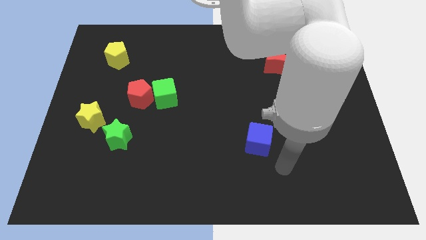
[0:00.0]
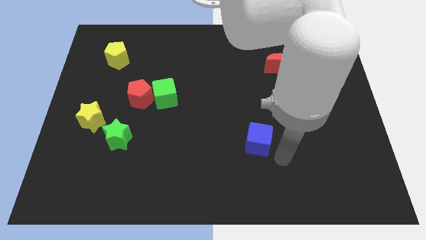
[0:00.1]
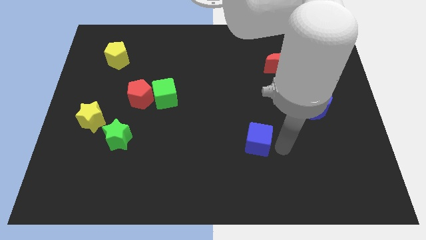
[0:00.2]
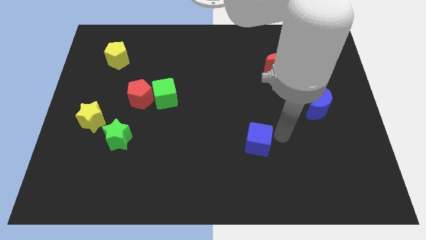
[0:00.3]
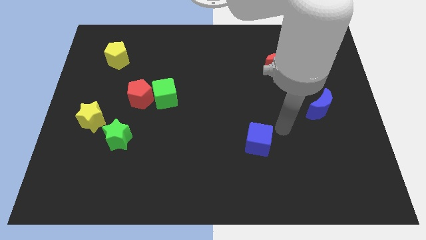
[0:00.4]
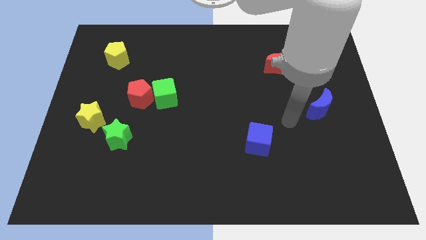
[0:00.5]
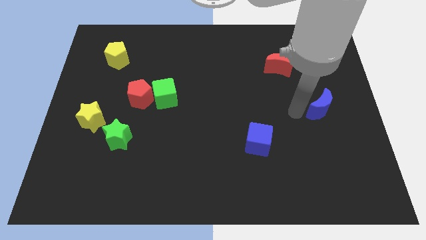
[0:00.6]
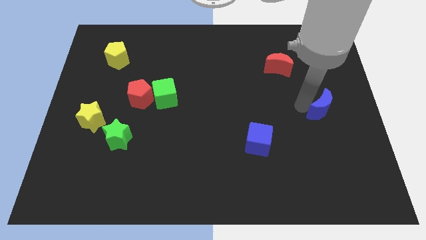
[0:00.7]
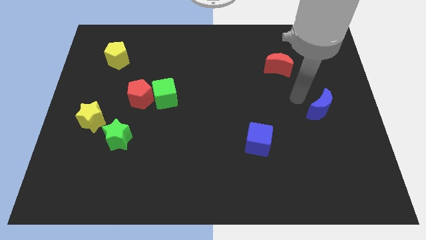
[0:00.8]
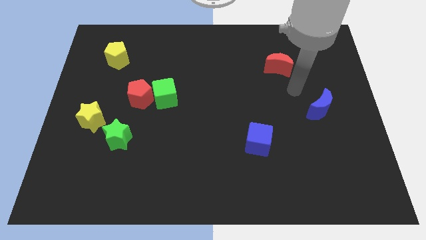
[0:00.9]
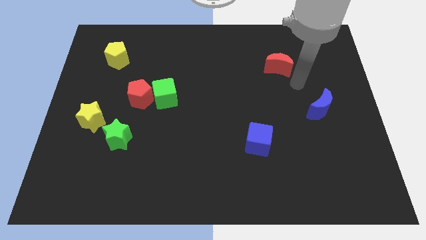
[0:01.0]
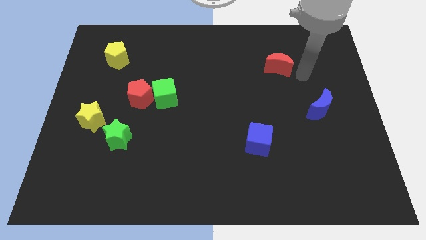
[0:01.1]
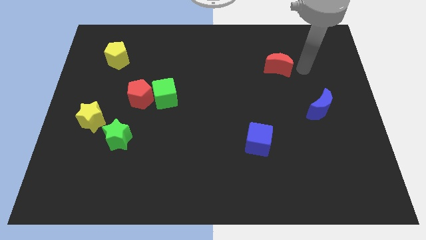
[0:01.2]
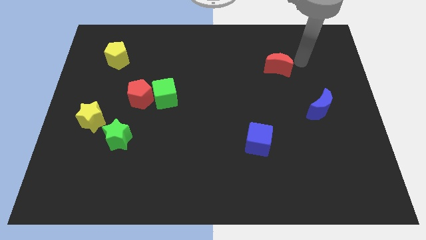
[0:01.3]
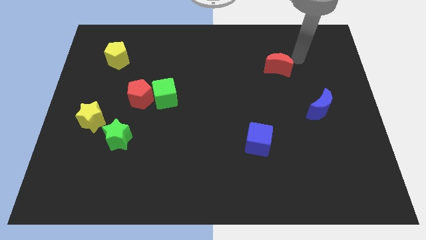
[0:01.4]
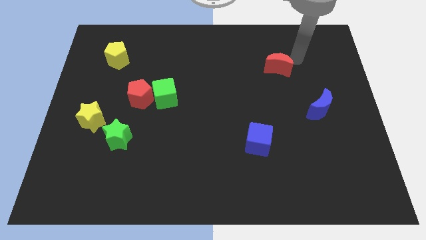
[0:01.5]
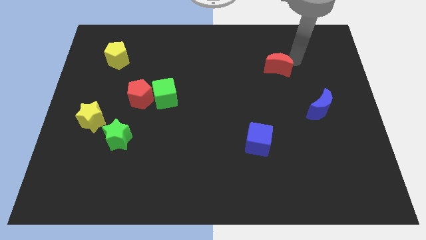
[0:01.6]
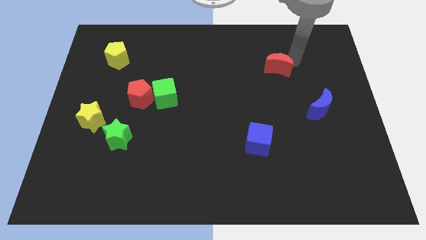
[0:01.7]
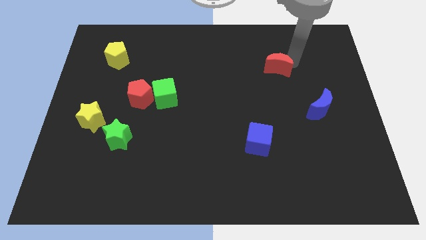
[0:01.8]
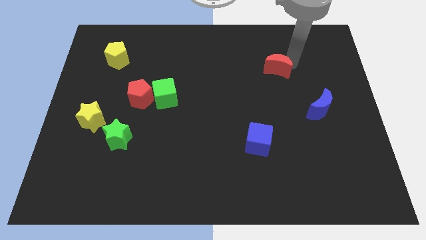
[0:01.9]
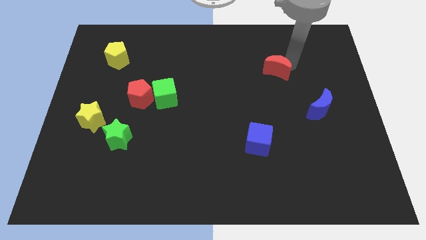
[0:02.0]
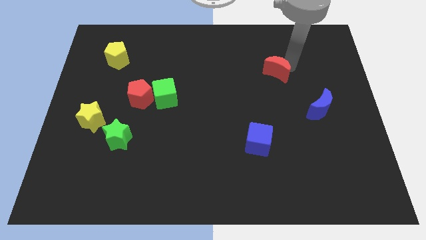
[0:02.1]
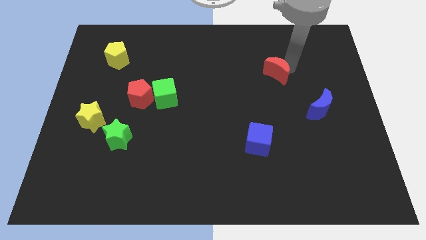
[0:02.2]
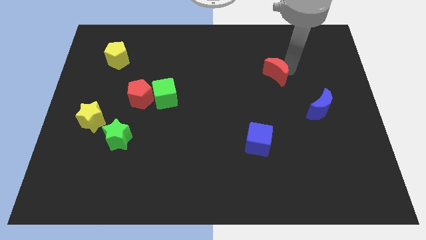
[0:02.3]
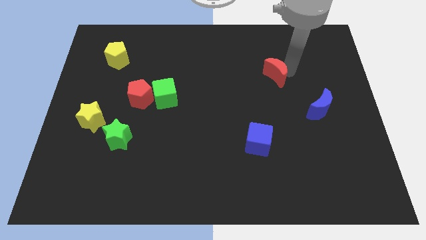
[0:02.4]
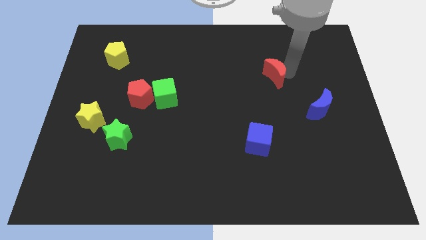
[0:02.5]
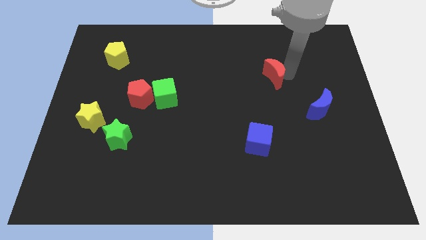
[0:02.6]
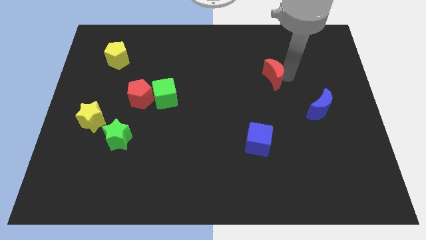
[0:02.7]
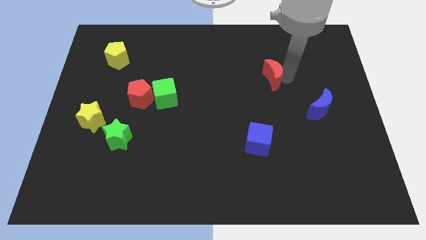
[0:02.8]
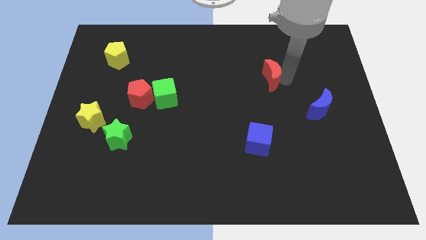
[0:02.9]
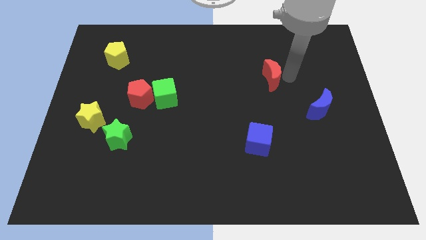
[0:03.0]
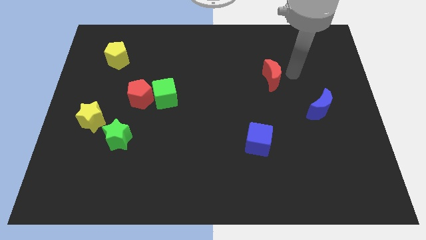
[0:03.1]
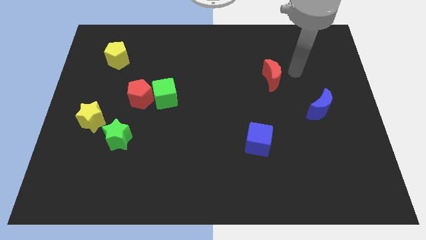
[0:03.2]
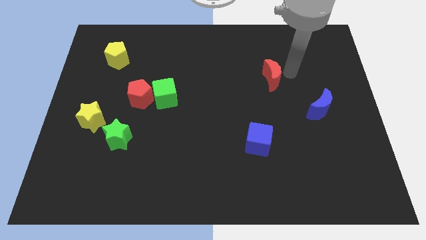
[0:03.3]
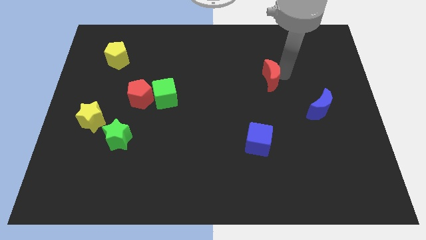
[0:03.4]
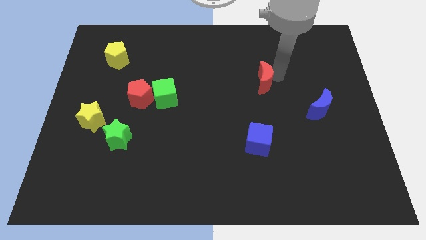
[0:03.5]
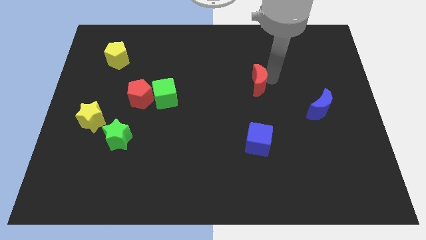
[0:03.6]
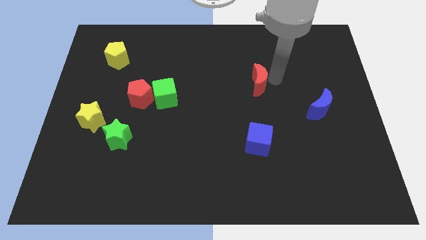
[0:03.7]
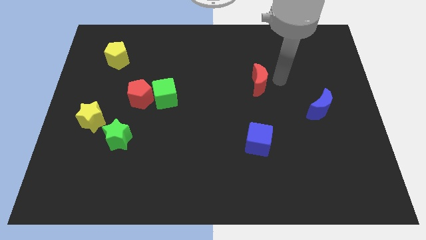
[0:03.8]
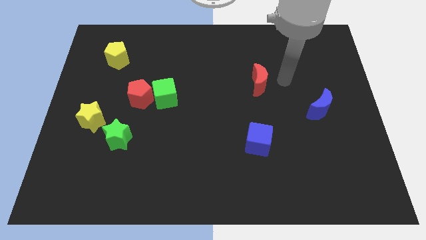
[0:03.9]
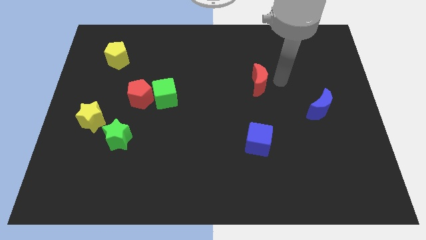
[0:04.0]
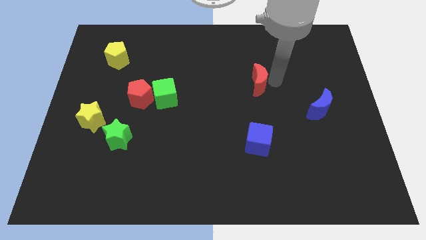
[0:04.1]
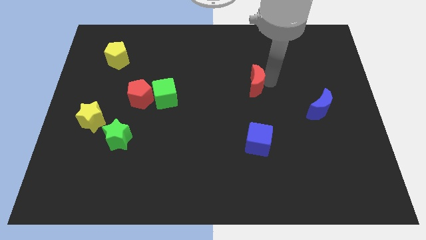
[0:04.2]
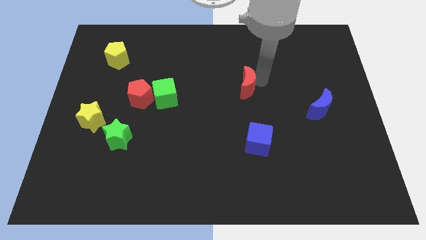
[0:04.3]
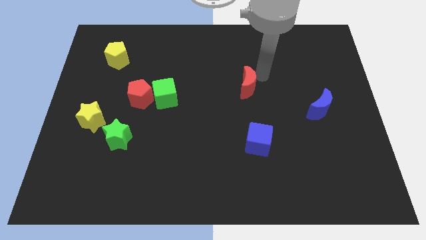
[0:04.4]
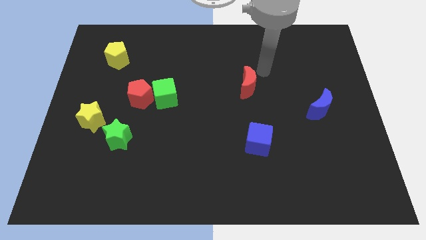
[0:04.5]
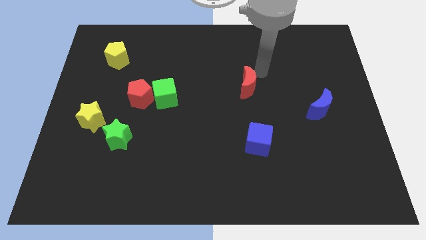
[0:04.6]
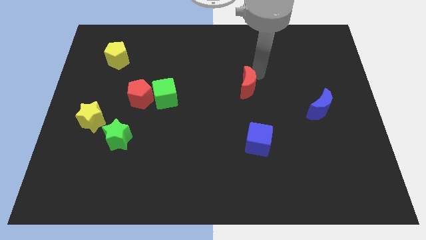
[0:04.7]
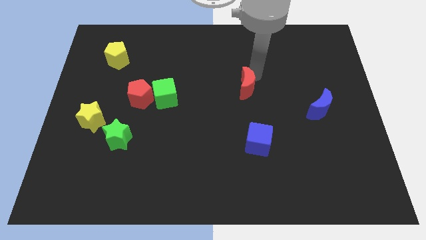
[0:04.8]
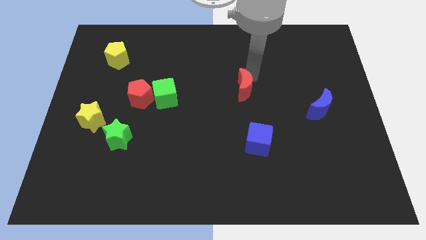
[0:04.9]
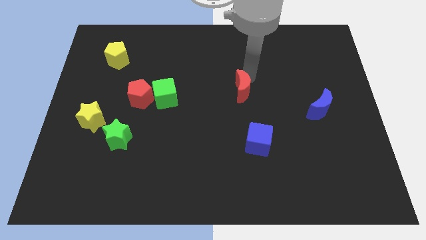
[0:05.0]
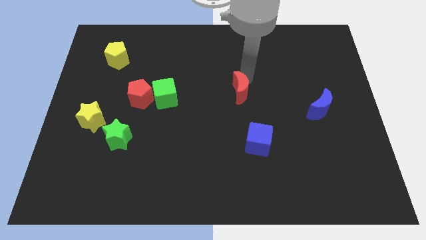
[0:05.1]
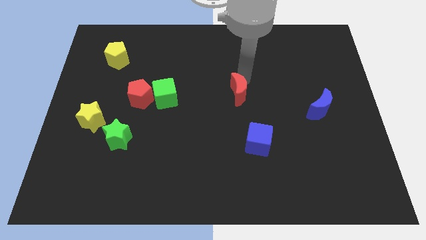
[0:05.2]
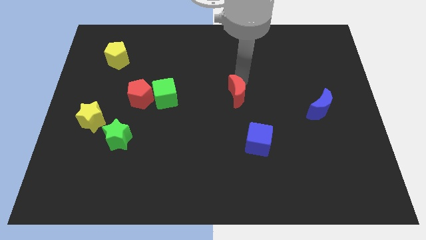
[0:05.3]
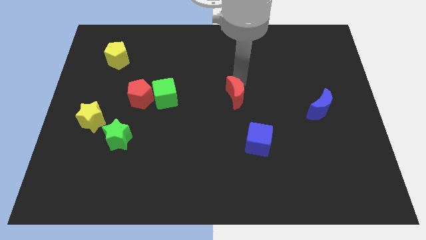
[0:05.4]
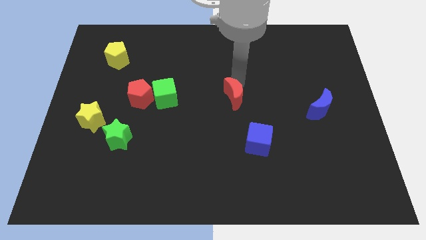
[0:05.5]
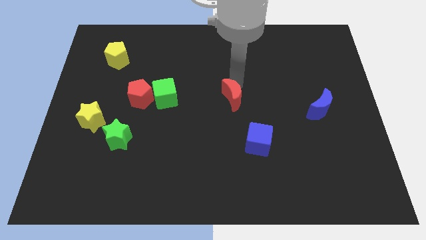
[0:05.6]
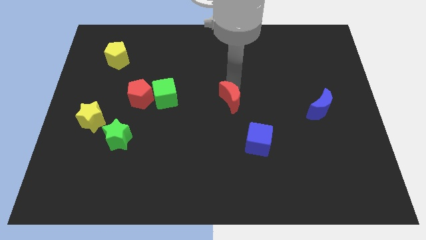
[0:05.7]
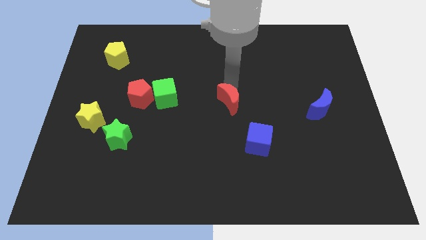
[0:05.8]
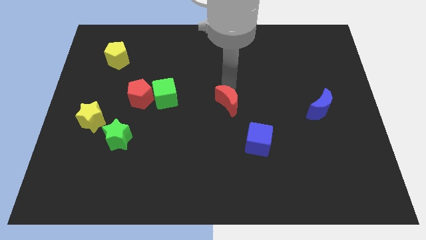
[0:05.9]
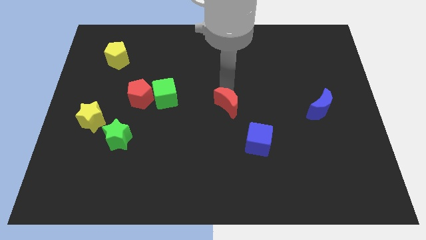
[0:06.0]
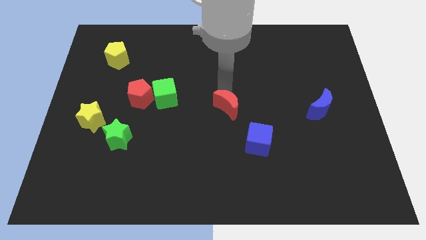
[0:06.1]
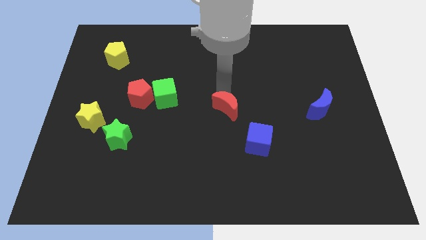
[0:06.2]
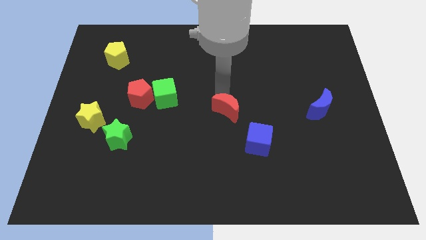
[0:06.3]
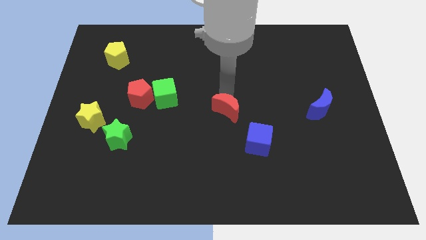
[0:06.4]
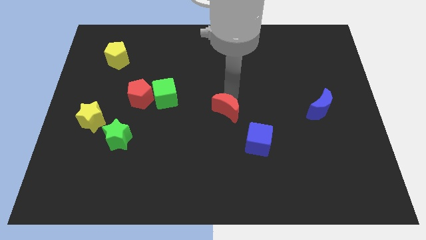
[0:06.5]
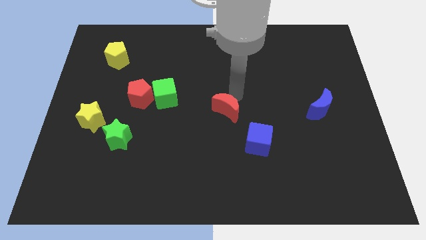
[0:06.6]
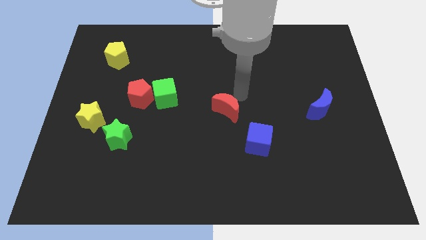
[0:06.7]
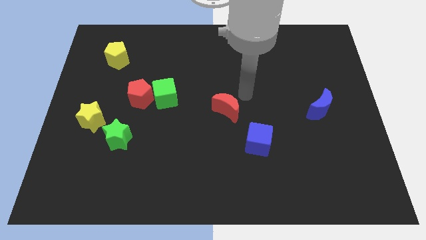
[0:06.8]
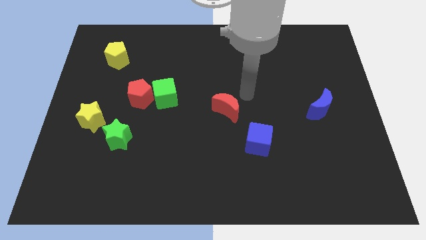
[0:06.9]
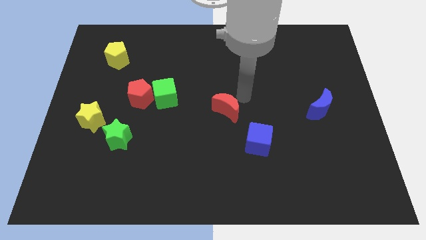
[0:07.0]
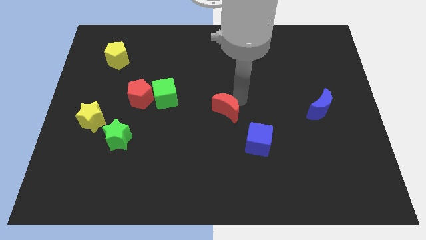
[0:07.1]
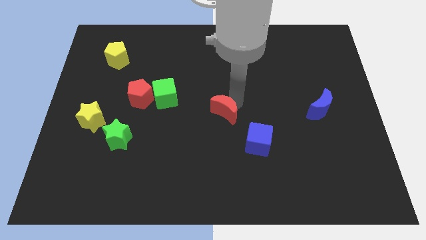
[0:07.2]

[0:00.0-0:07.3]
slide the red moon downwards and left diagonally

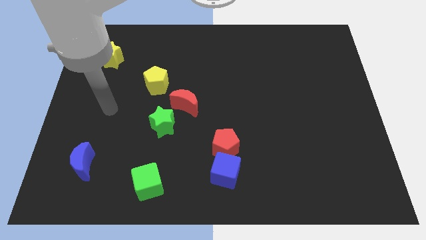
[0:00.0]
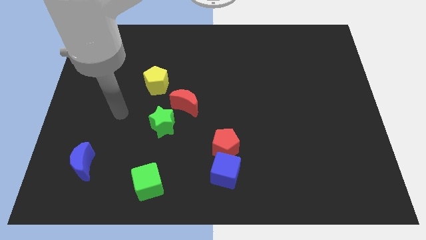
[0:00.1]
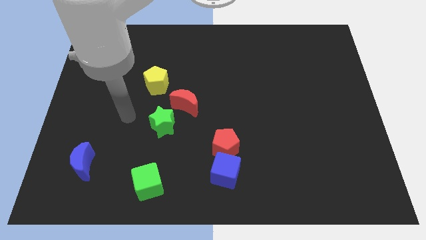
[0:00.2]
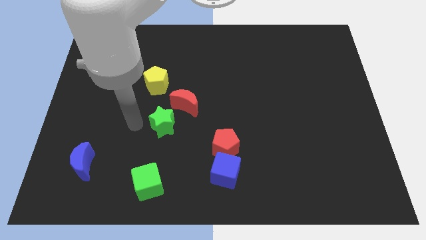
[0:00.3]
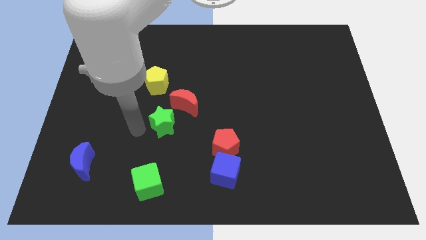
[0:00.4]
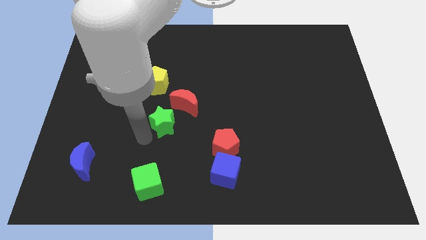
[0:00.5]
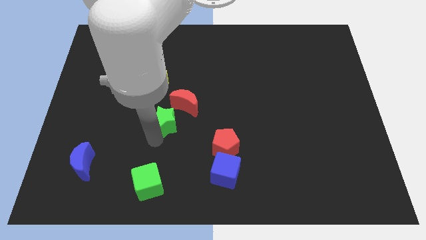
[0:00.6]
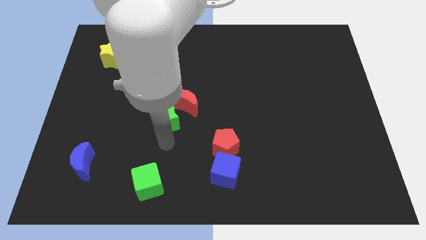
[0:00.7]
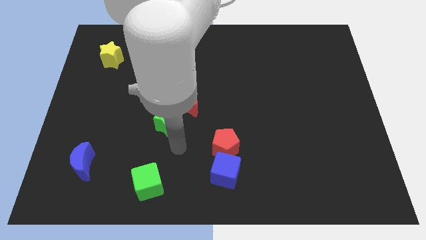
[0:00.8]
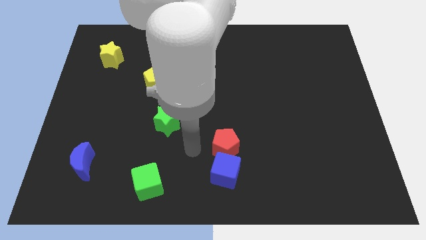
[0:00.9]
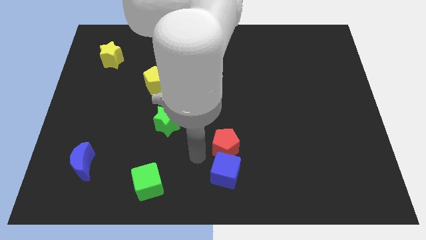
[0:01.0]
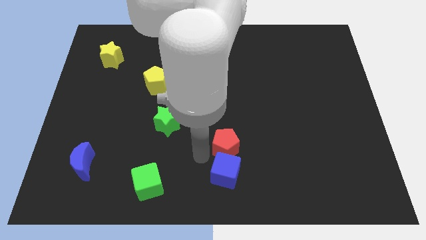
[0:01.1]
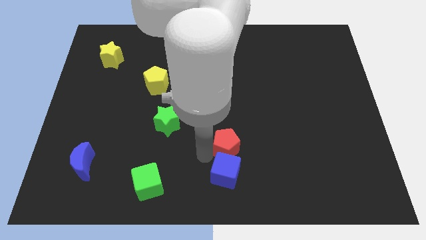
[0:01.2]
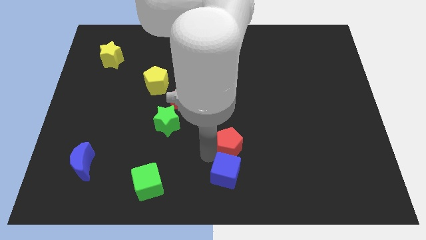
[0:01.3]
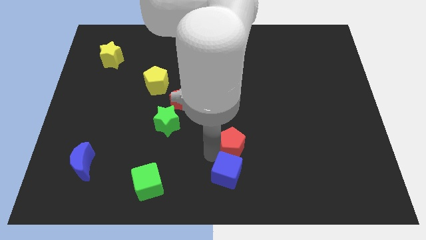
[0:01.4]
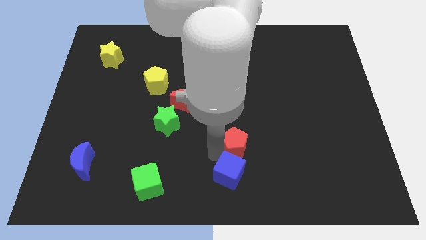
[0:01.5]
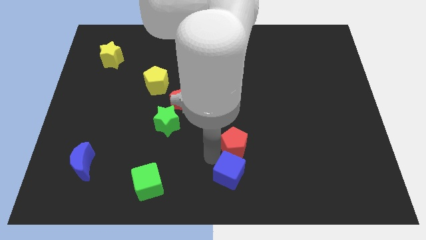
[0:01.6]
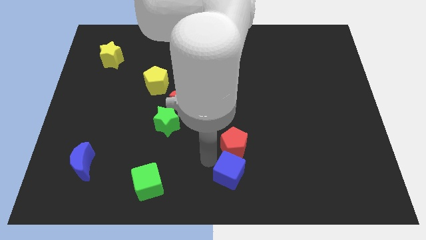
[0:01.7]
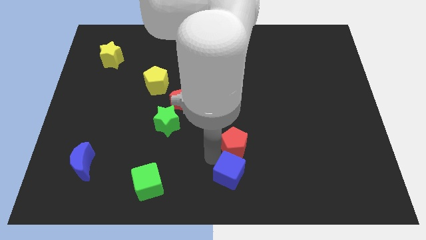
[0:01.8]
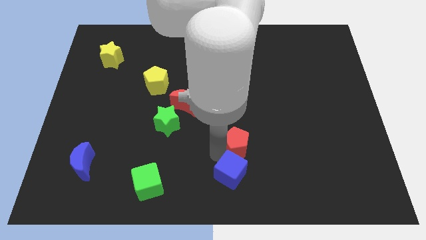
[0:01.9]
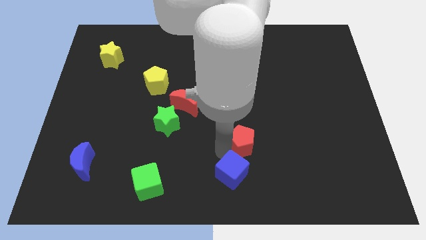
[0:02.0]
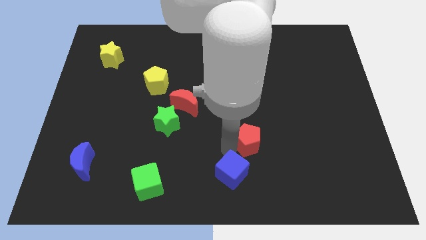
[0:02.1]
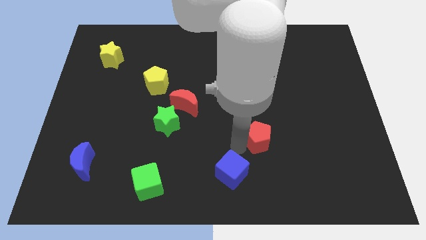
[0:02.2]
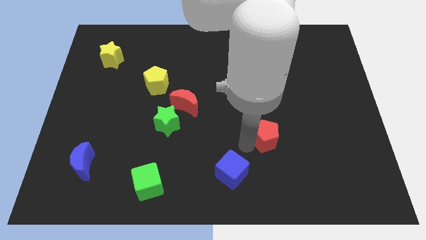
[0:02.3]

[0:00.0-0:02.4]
slide the red pentagon a little up and right diagonally
